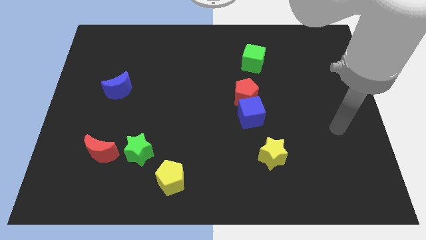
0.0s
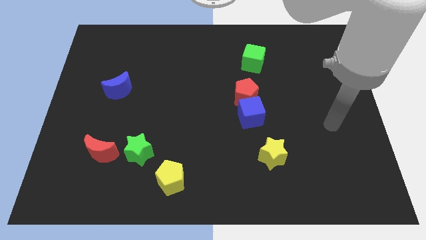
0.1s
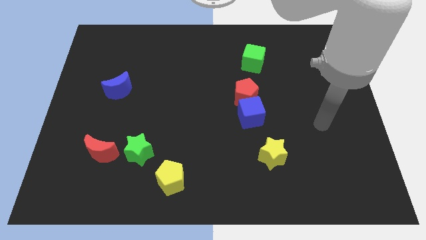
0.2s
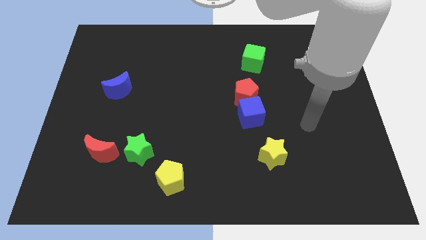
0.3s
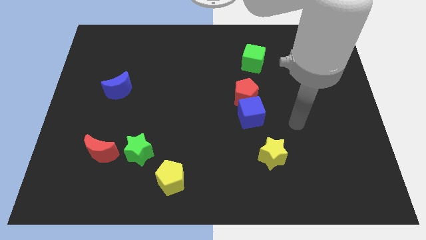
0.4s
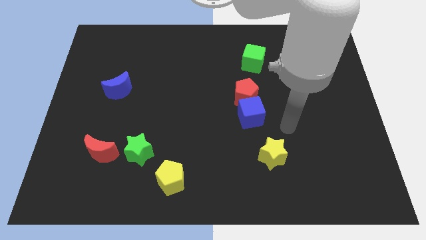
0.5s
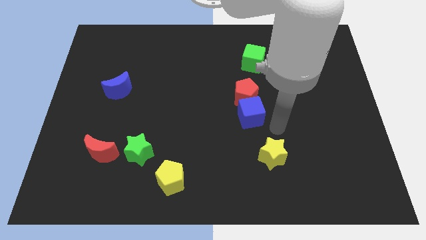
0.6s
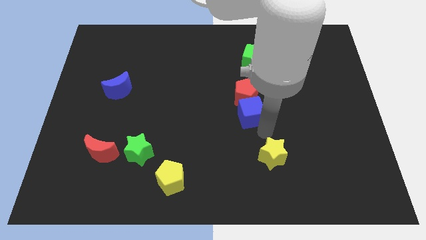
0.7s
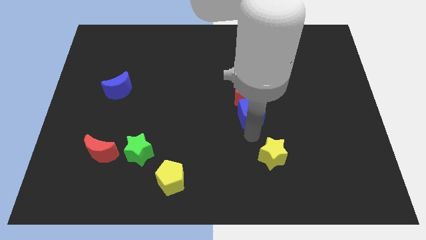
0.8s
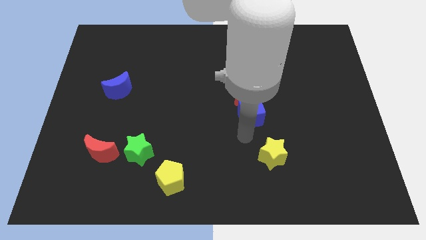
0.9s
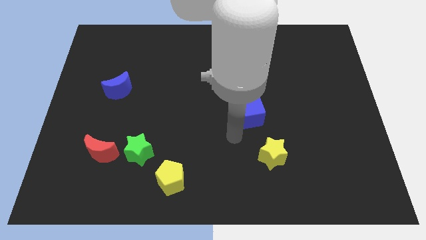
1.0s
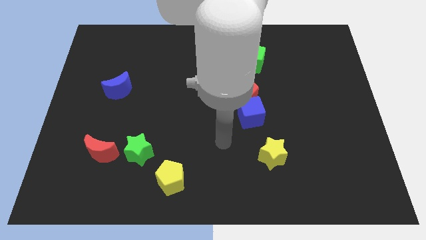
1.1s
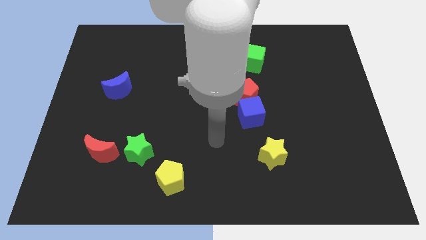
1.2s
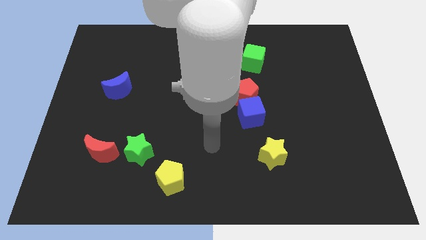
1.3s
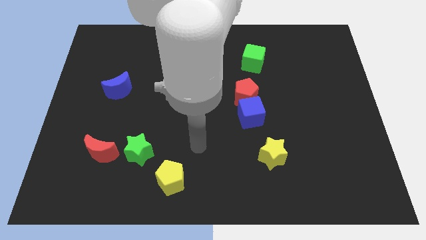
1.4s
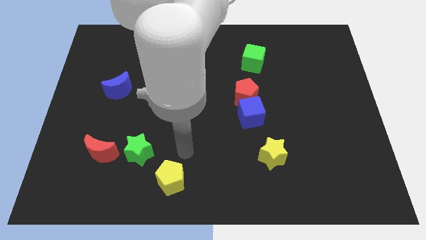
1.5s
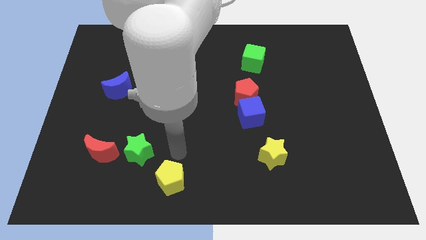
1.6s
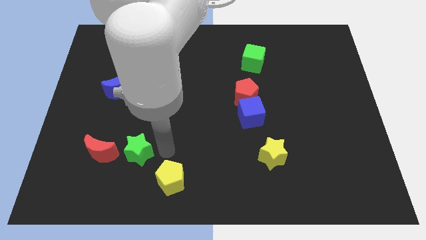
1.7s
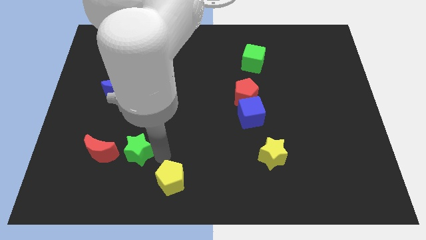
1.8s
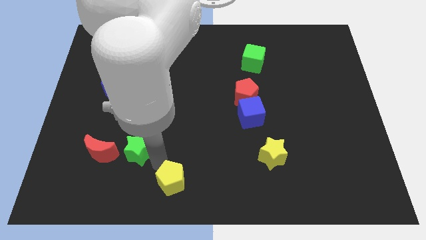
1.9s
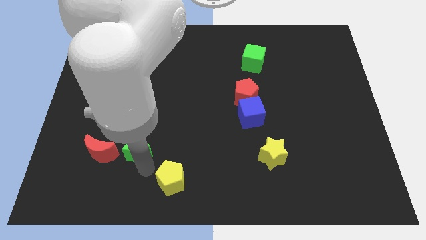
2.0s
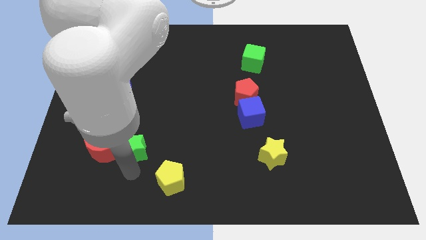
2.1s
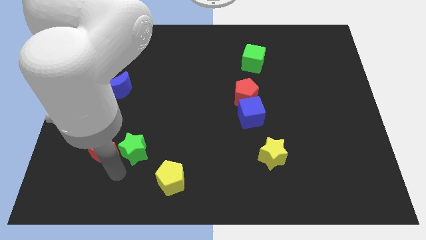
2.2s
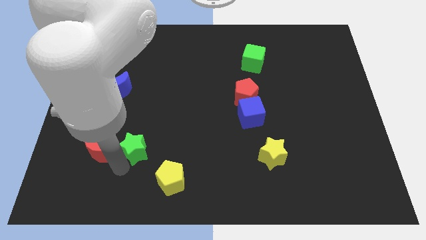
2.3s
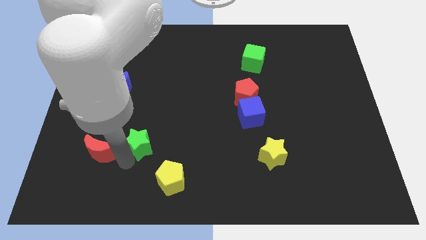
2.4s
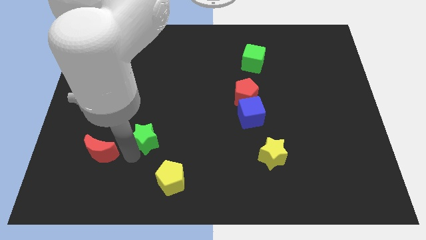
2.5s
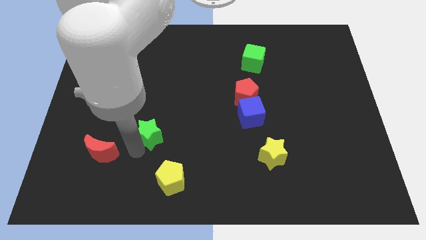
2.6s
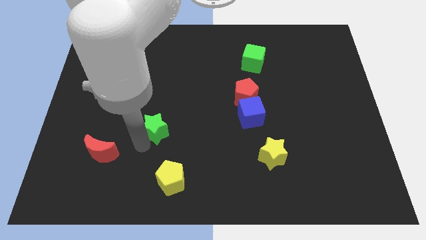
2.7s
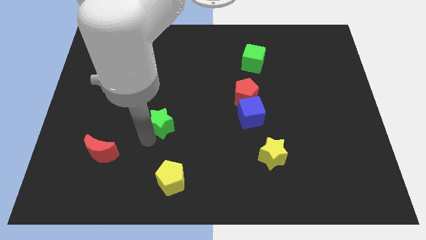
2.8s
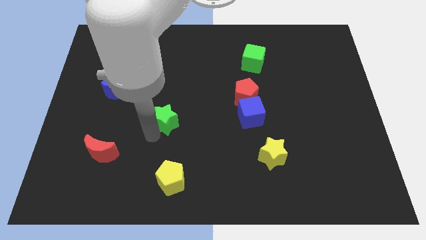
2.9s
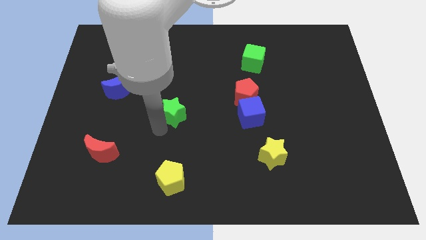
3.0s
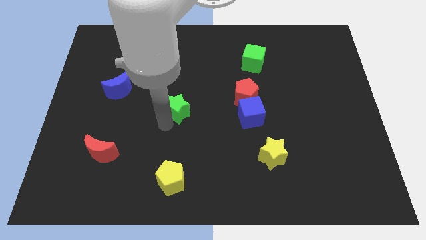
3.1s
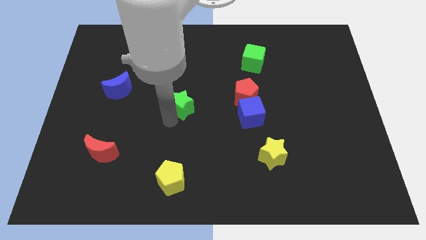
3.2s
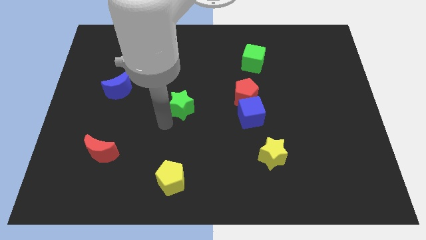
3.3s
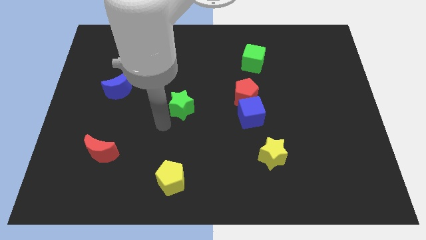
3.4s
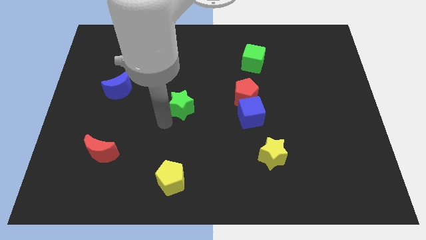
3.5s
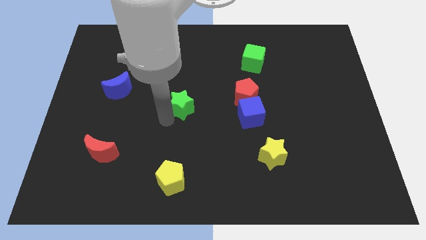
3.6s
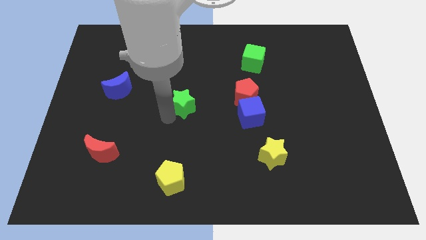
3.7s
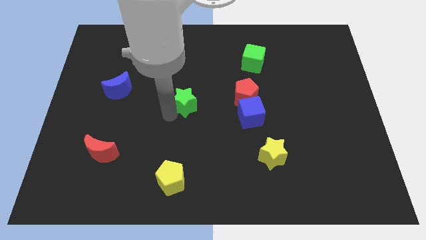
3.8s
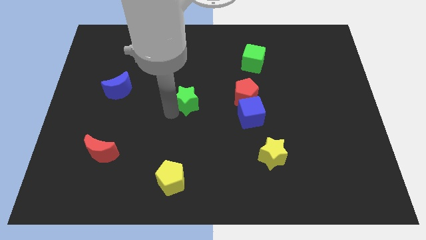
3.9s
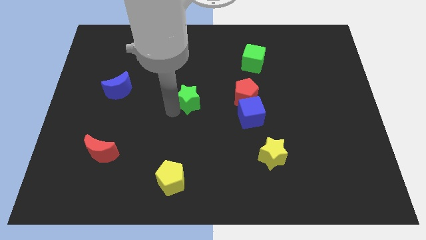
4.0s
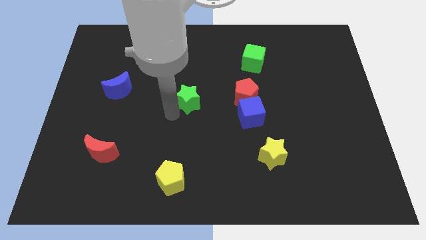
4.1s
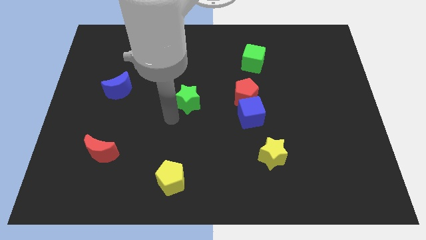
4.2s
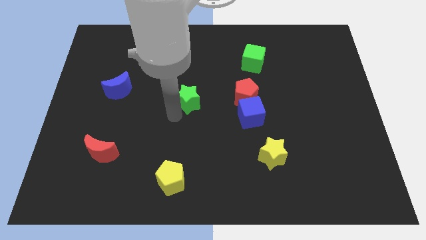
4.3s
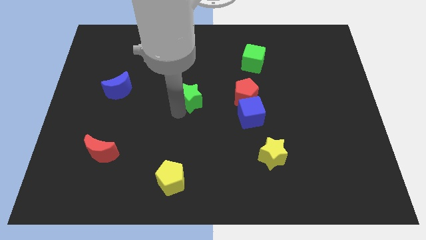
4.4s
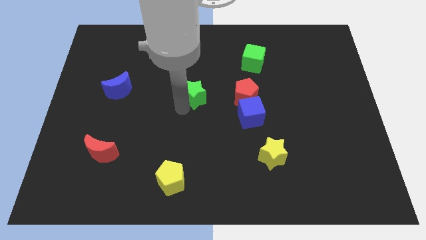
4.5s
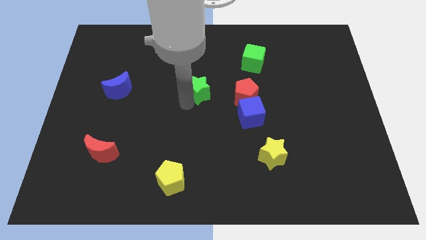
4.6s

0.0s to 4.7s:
slide the green star upwards and to the right

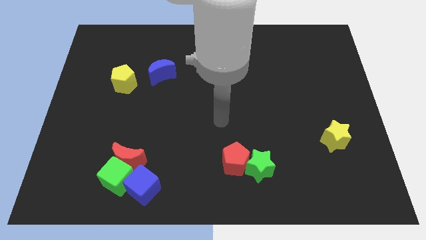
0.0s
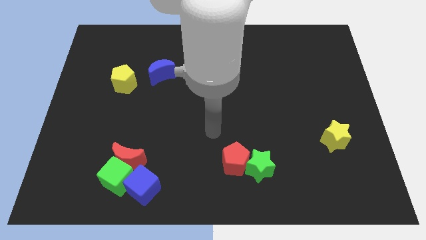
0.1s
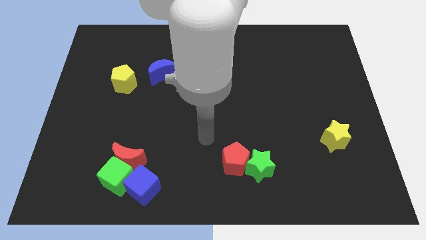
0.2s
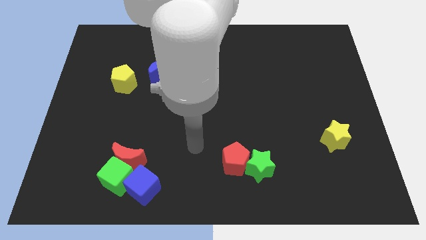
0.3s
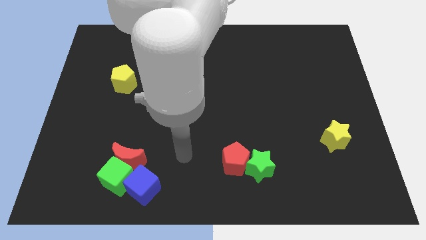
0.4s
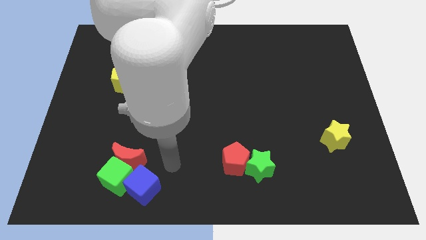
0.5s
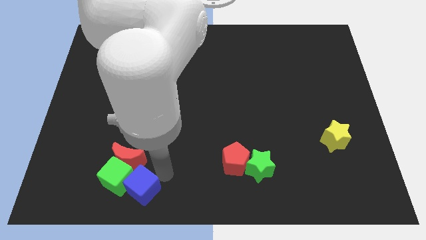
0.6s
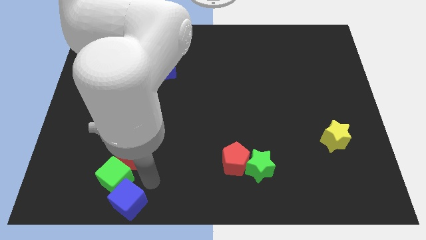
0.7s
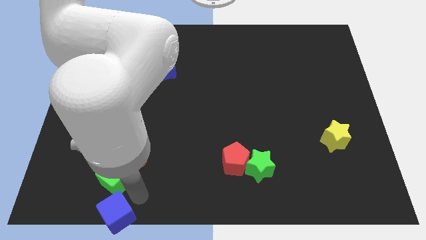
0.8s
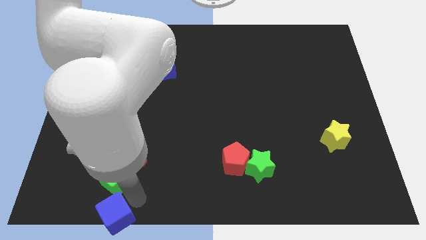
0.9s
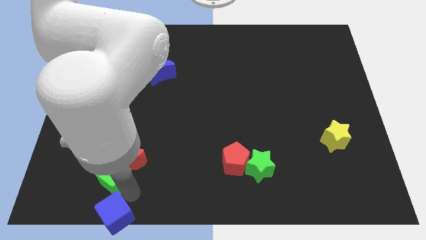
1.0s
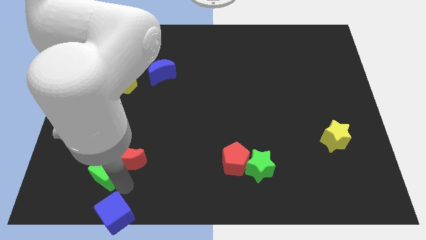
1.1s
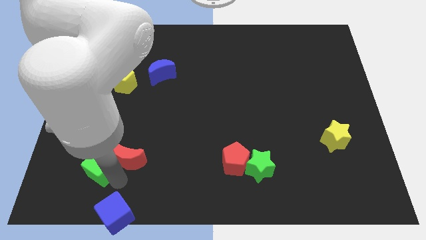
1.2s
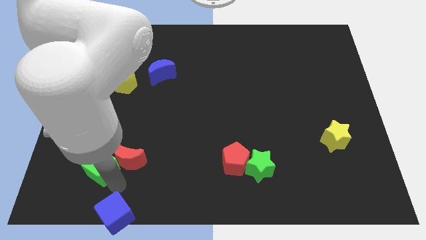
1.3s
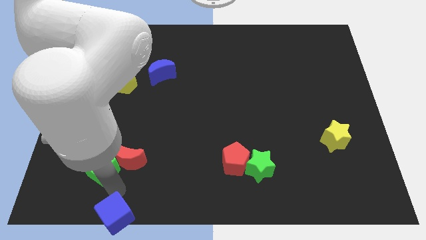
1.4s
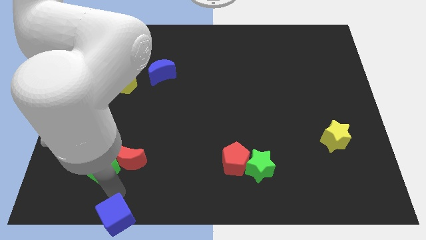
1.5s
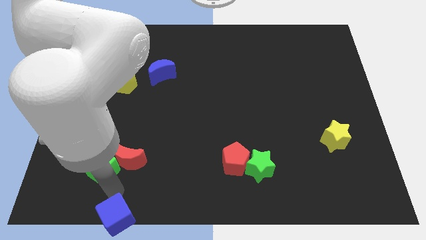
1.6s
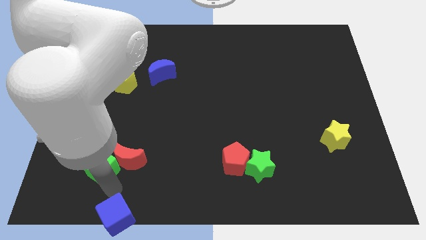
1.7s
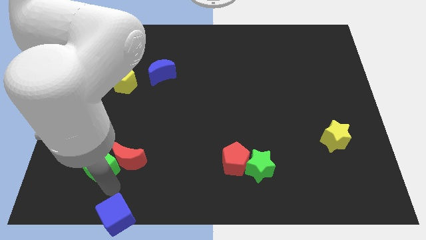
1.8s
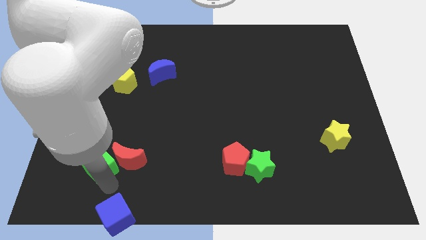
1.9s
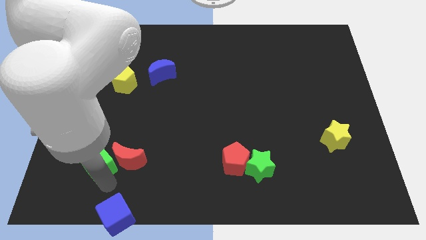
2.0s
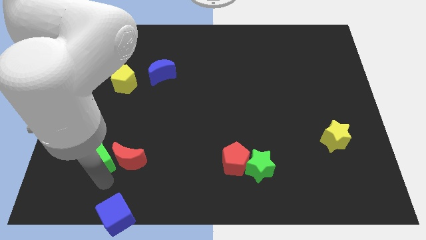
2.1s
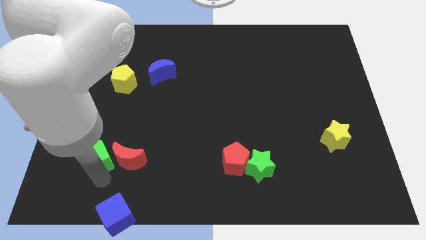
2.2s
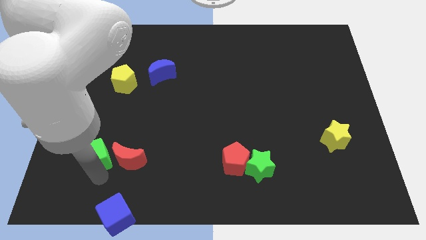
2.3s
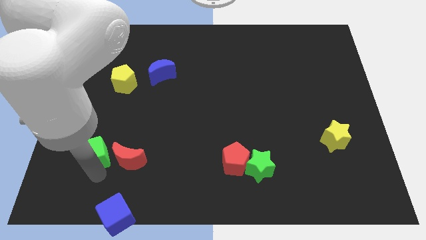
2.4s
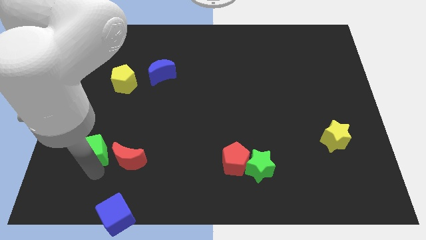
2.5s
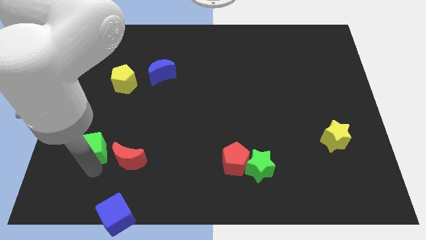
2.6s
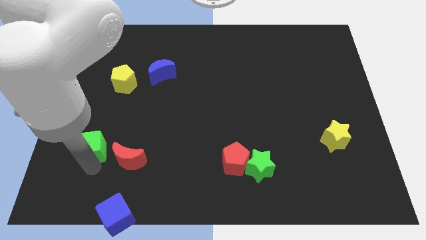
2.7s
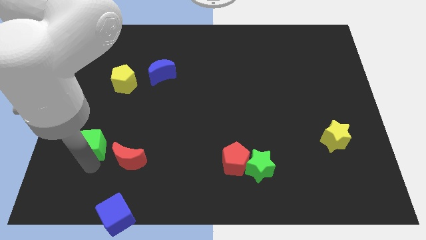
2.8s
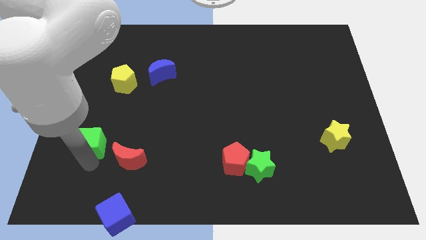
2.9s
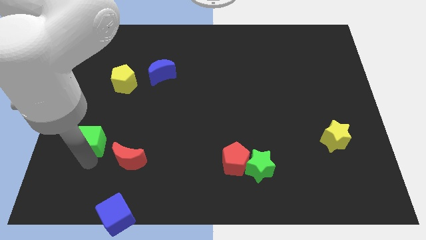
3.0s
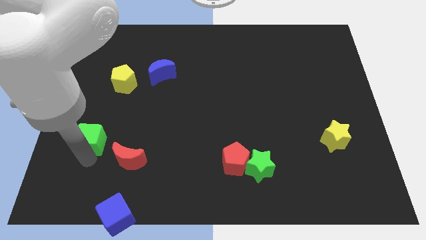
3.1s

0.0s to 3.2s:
push the green cube up a little

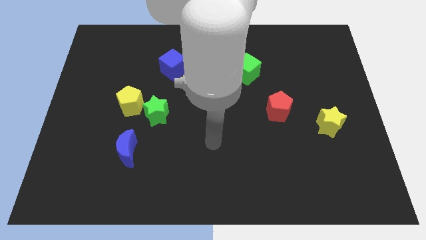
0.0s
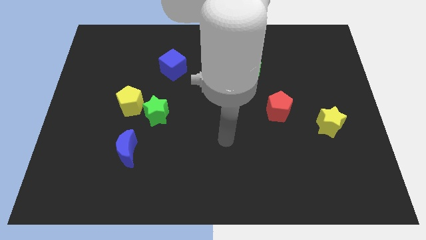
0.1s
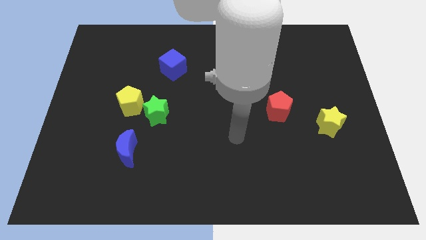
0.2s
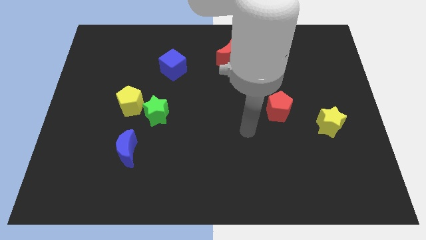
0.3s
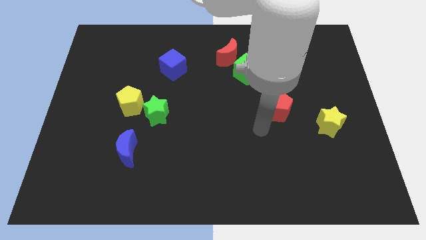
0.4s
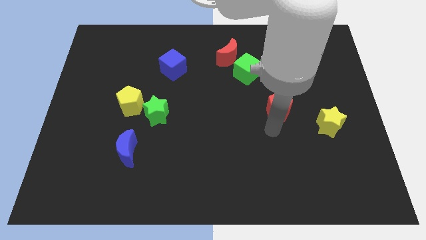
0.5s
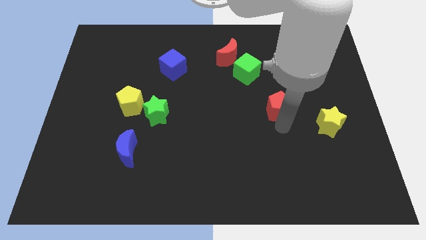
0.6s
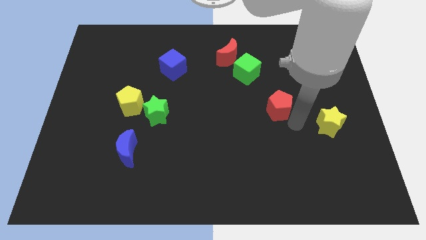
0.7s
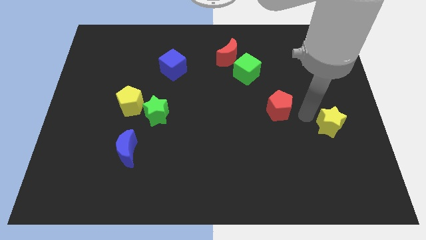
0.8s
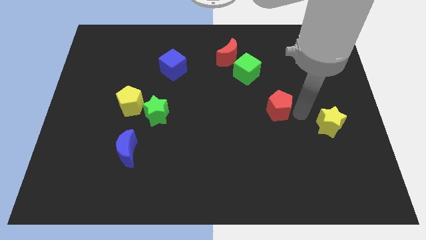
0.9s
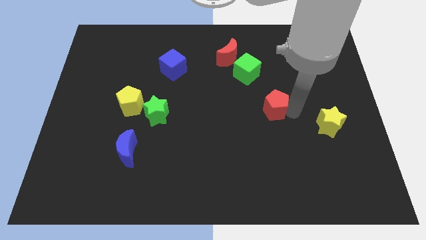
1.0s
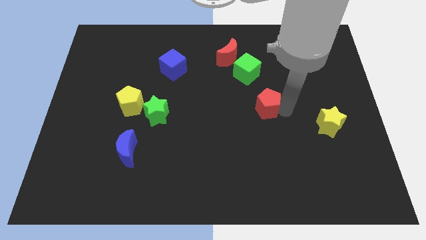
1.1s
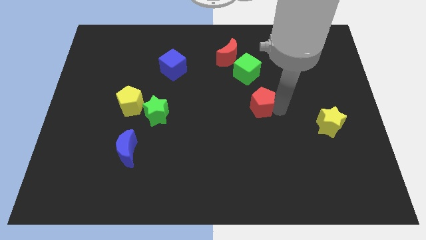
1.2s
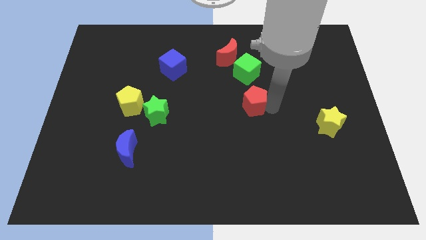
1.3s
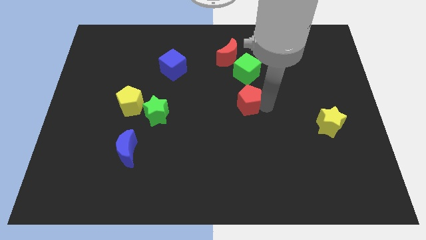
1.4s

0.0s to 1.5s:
slide the red pentagon to the left a bit
